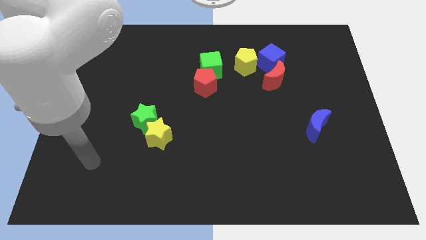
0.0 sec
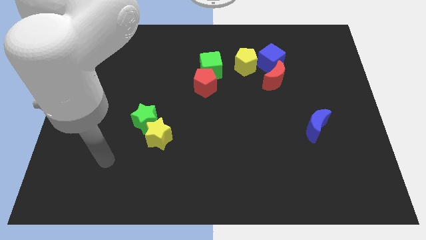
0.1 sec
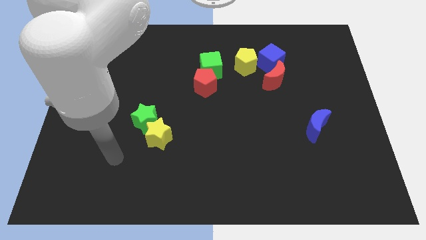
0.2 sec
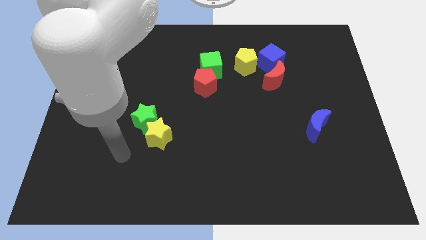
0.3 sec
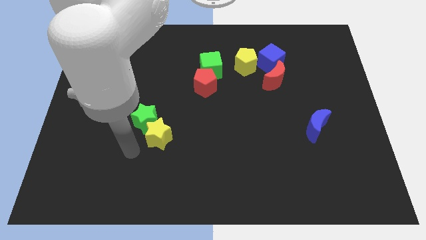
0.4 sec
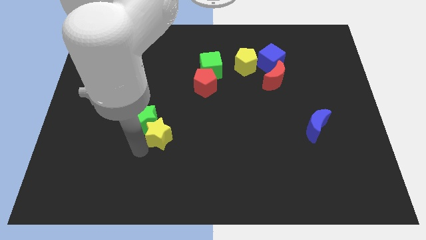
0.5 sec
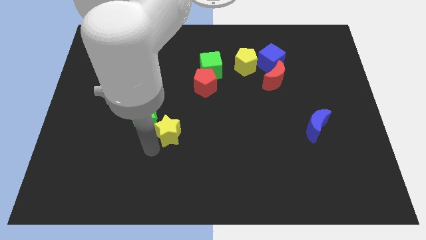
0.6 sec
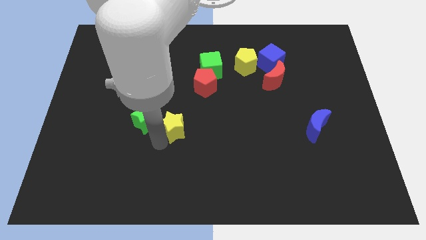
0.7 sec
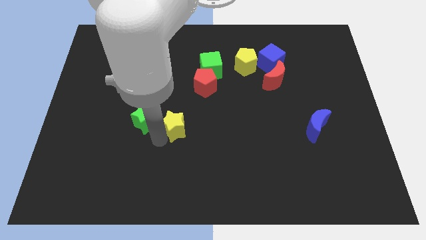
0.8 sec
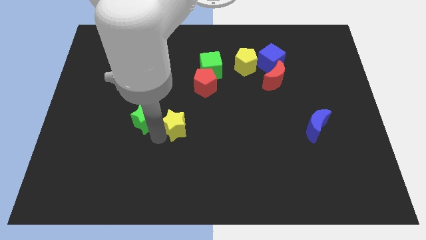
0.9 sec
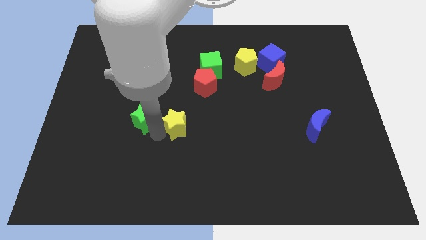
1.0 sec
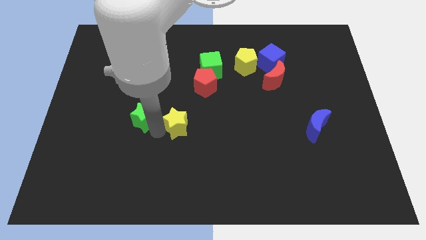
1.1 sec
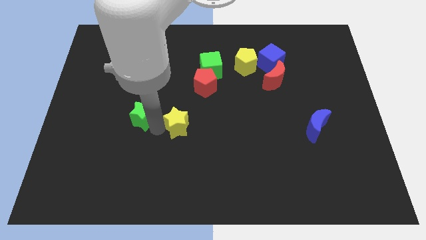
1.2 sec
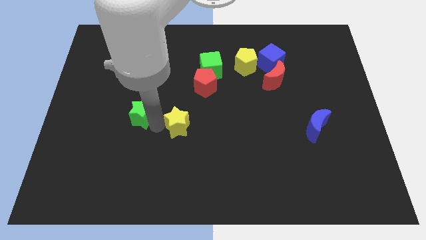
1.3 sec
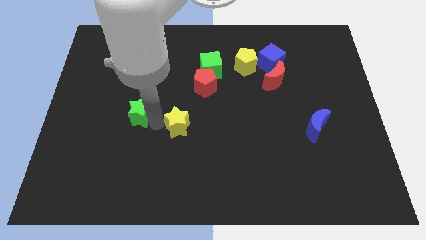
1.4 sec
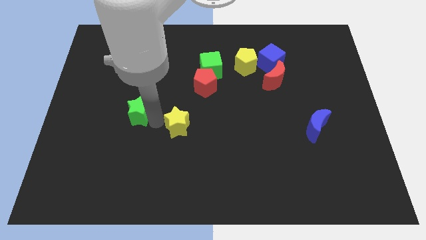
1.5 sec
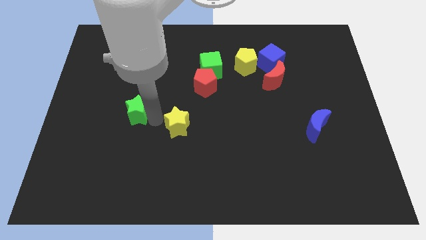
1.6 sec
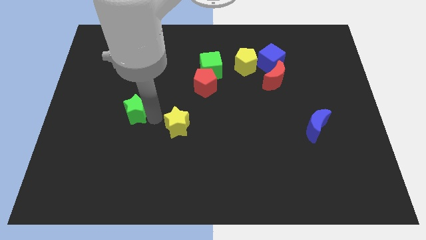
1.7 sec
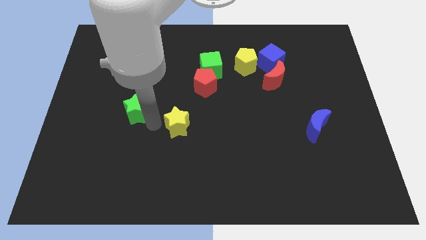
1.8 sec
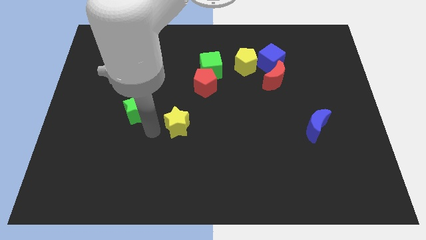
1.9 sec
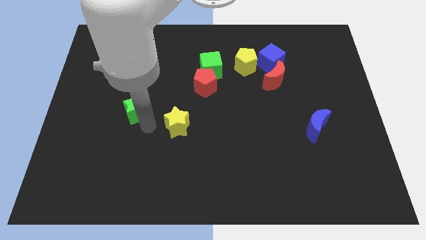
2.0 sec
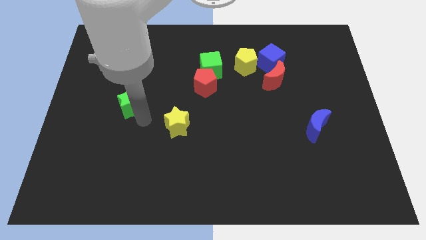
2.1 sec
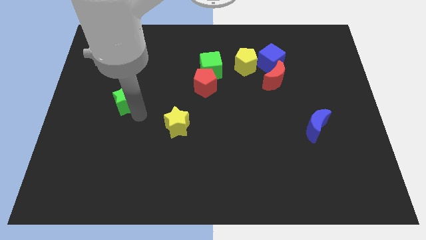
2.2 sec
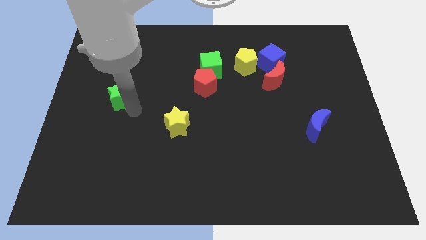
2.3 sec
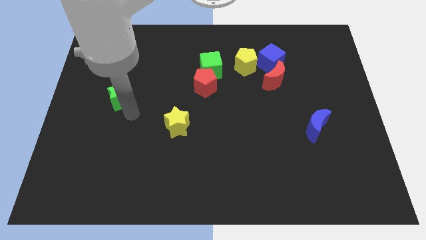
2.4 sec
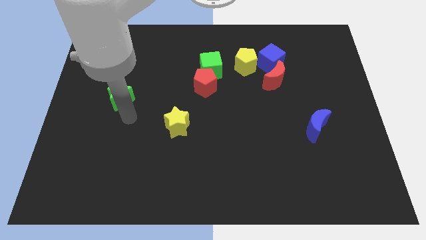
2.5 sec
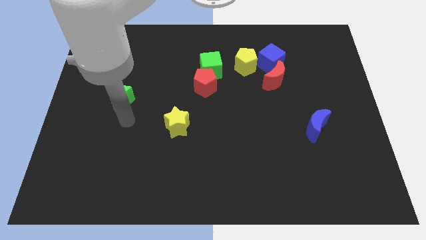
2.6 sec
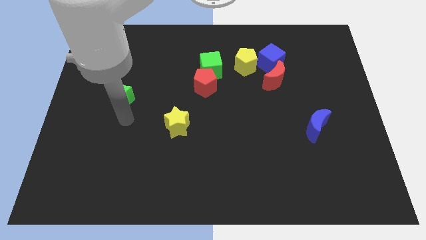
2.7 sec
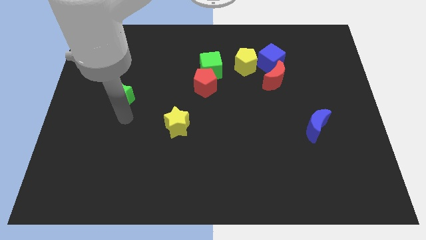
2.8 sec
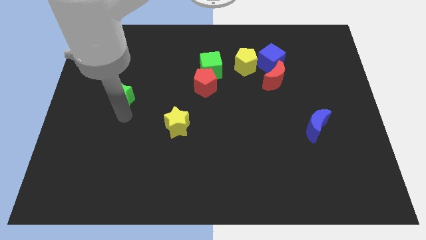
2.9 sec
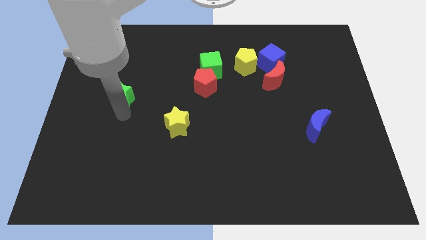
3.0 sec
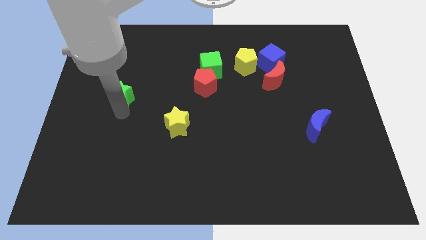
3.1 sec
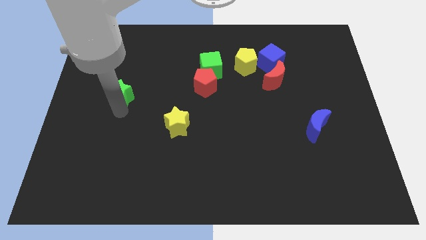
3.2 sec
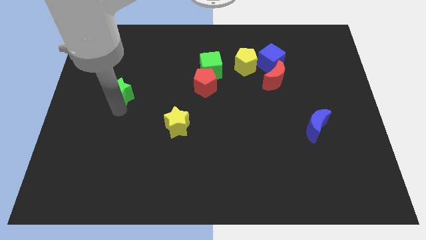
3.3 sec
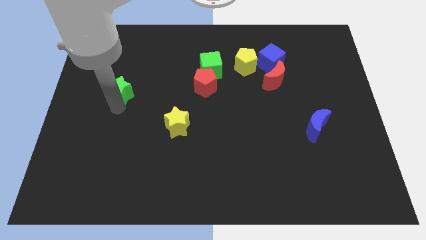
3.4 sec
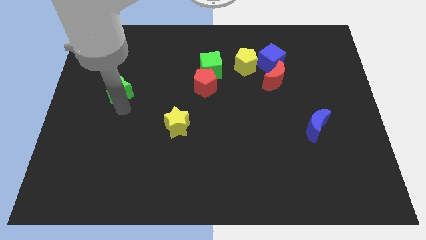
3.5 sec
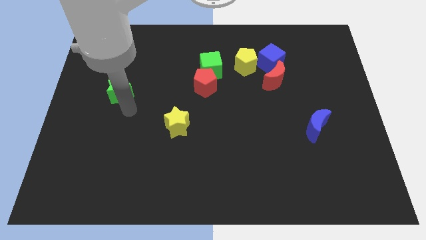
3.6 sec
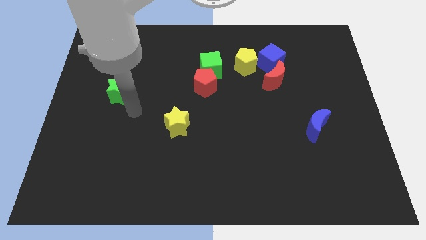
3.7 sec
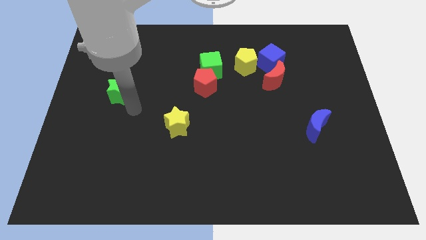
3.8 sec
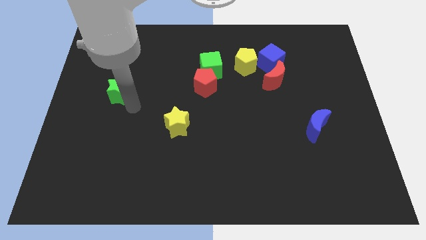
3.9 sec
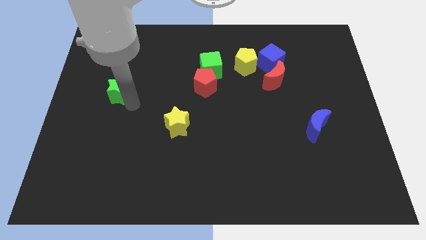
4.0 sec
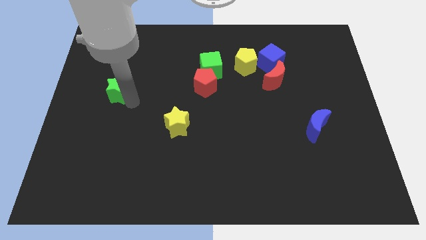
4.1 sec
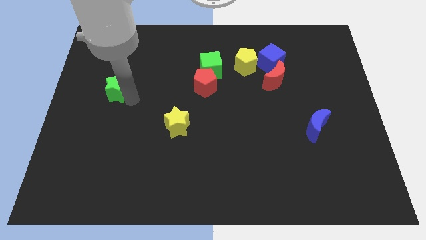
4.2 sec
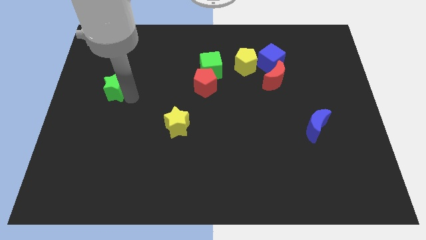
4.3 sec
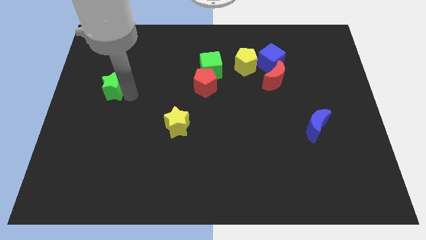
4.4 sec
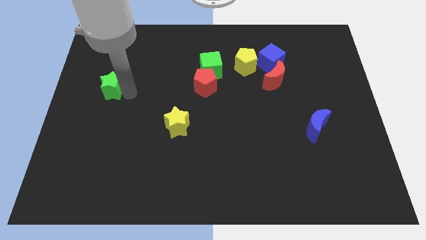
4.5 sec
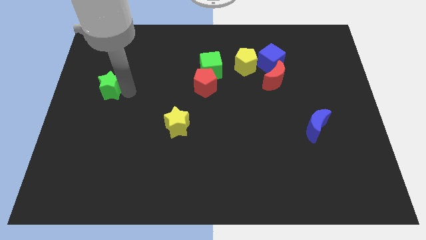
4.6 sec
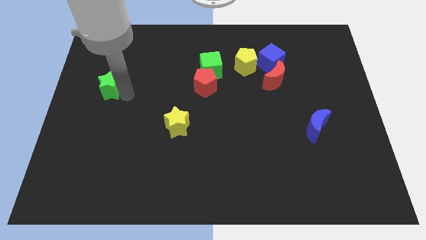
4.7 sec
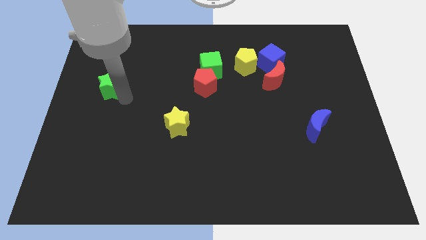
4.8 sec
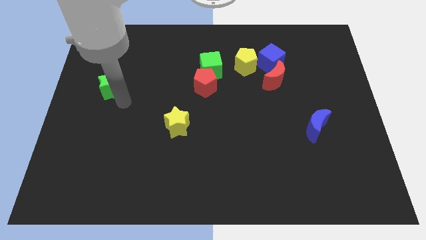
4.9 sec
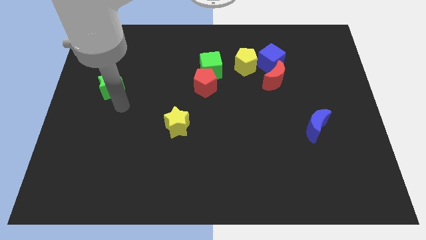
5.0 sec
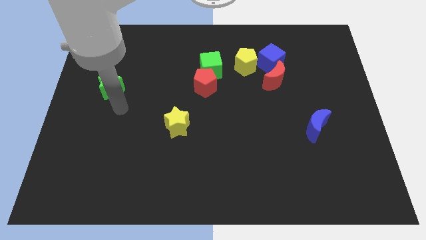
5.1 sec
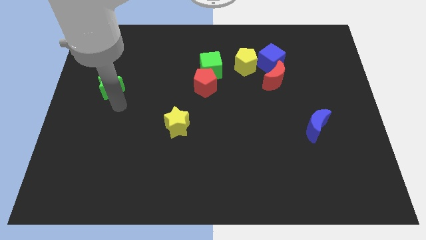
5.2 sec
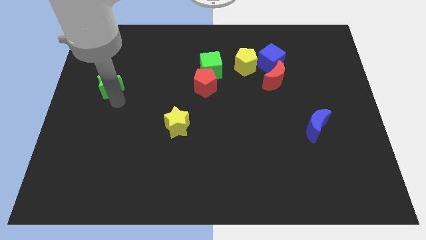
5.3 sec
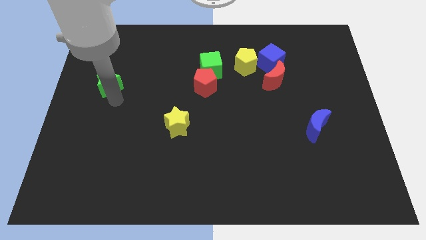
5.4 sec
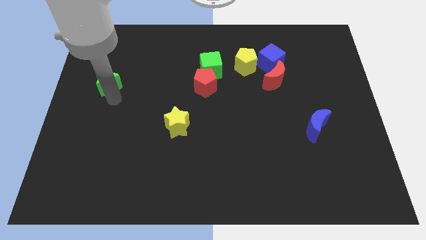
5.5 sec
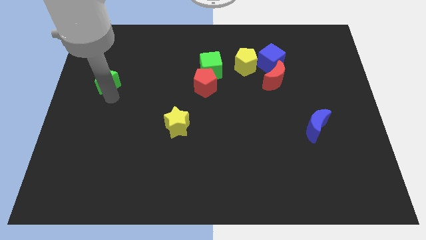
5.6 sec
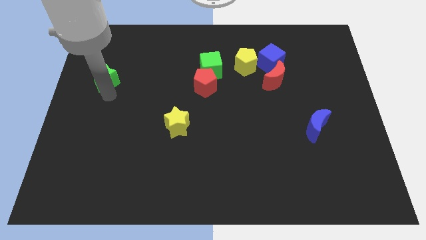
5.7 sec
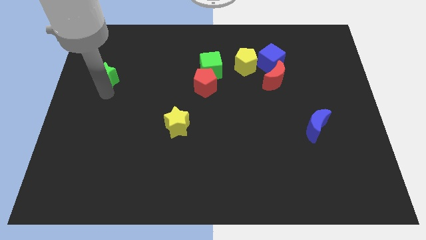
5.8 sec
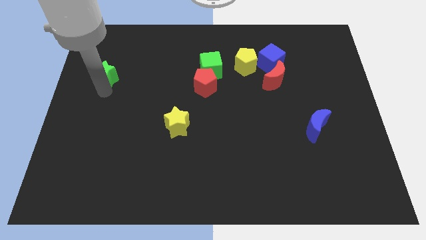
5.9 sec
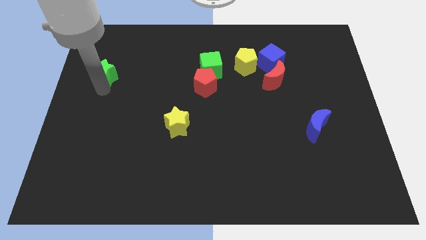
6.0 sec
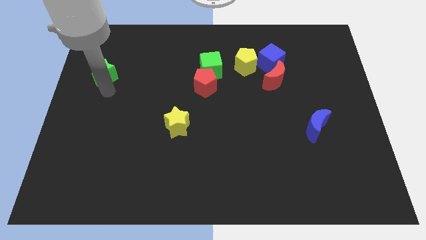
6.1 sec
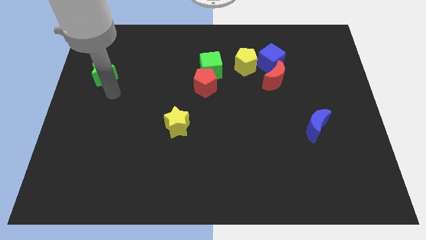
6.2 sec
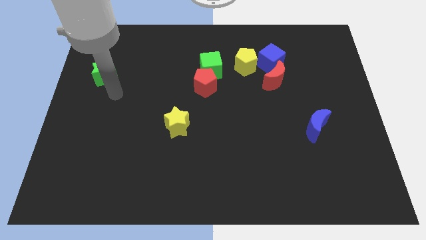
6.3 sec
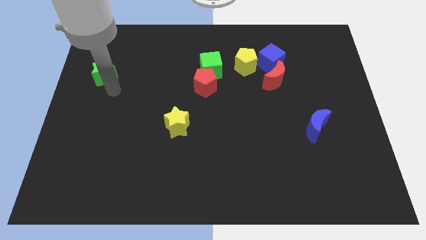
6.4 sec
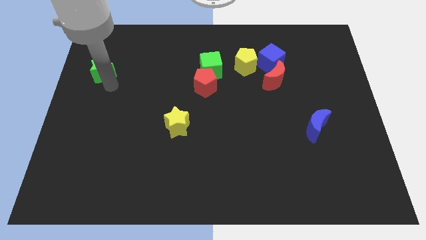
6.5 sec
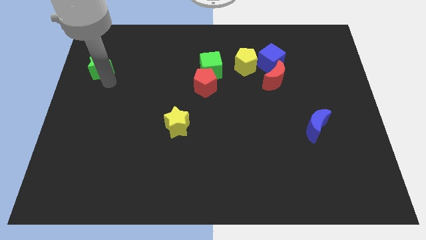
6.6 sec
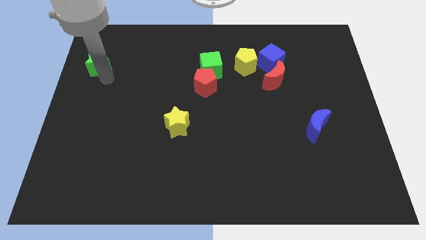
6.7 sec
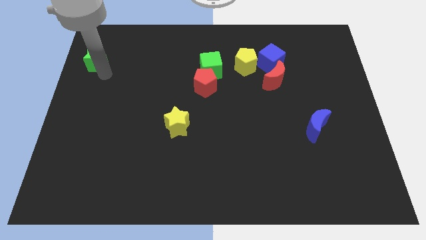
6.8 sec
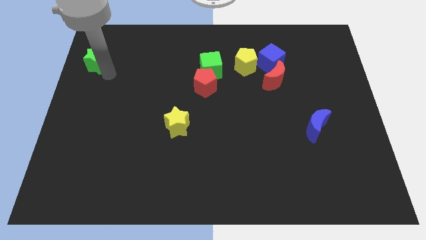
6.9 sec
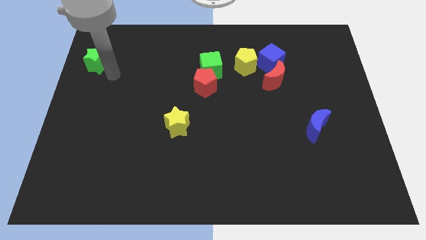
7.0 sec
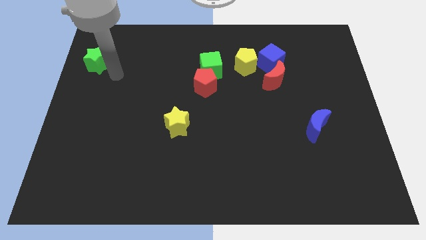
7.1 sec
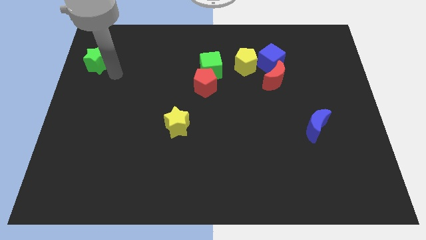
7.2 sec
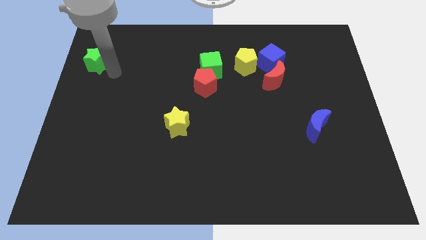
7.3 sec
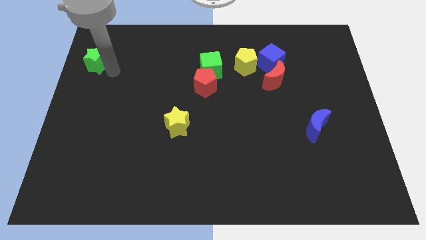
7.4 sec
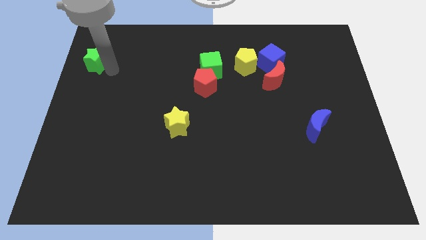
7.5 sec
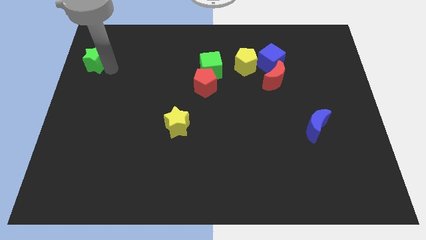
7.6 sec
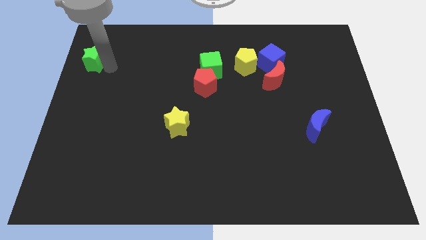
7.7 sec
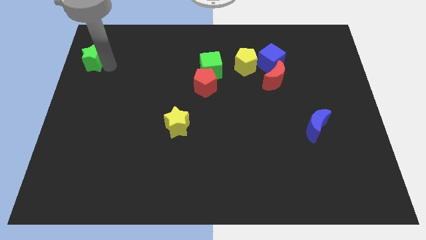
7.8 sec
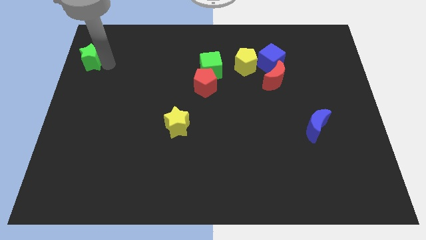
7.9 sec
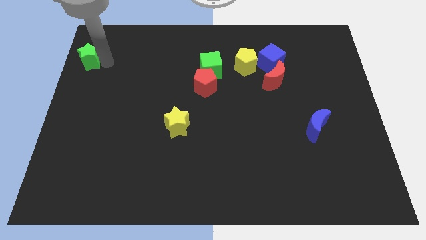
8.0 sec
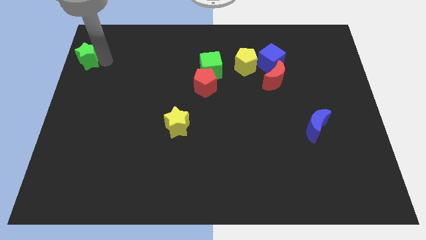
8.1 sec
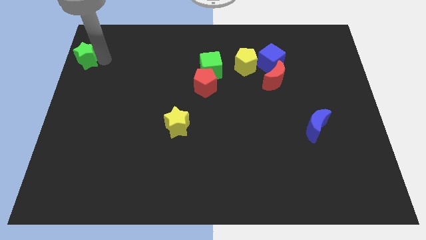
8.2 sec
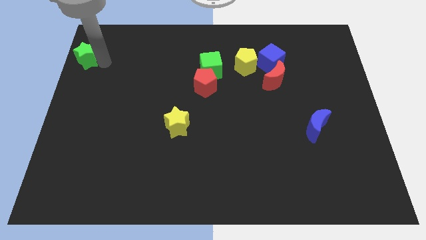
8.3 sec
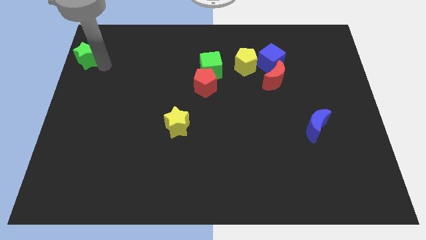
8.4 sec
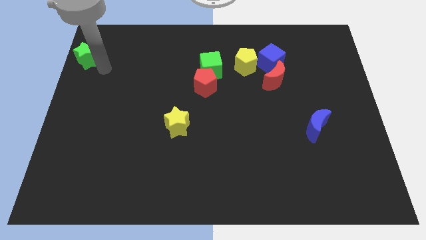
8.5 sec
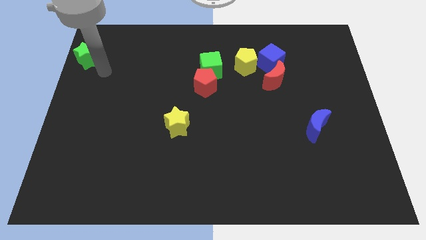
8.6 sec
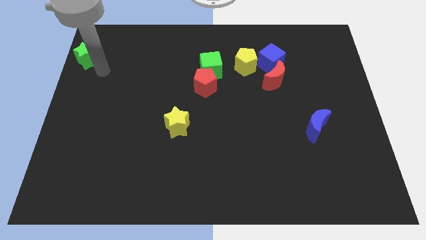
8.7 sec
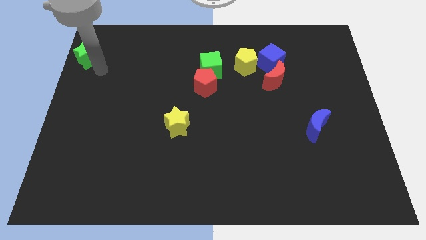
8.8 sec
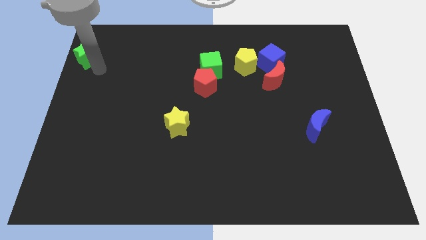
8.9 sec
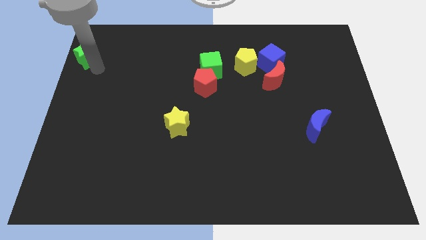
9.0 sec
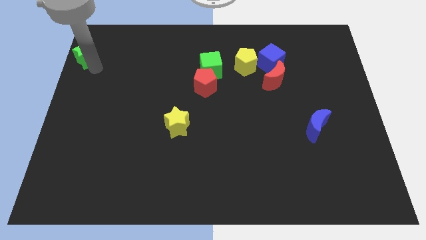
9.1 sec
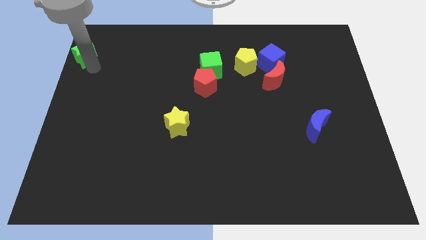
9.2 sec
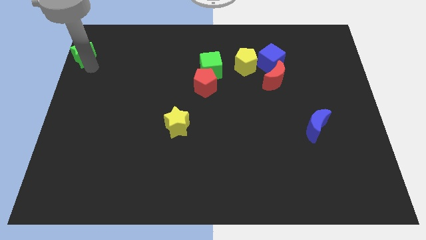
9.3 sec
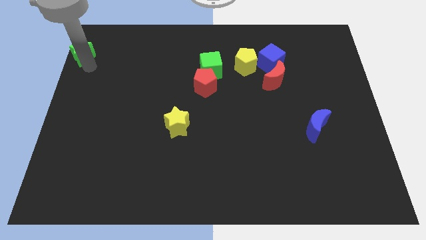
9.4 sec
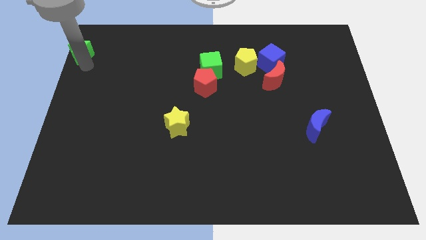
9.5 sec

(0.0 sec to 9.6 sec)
move the green star to the top left of the board
